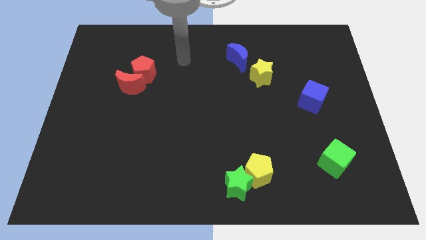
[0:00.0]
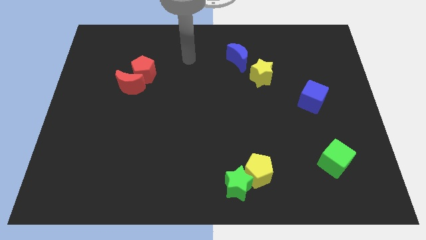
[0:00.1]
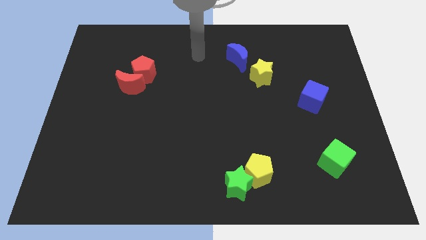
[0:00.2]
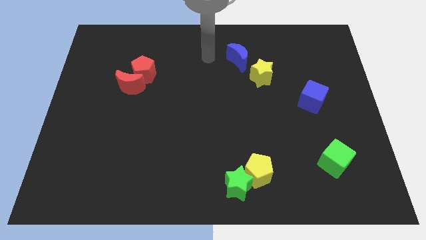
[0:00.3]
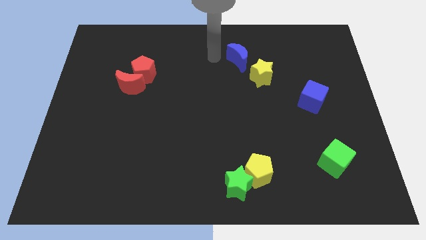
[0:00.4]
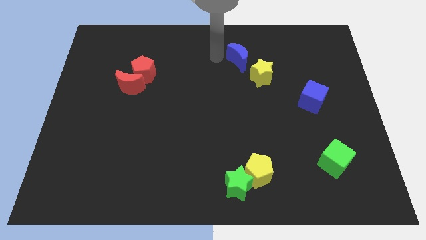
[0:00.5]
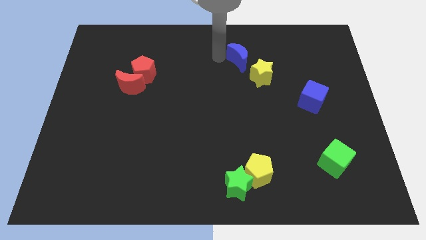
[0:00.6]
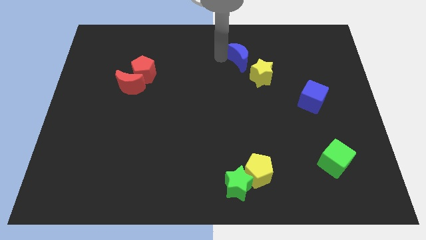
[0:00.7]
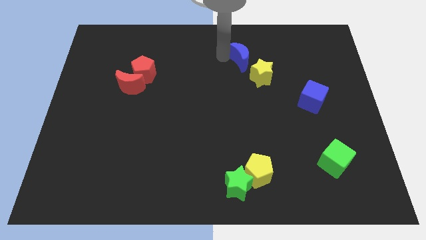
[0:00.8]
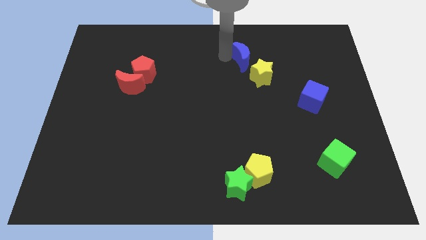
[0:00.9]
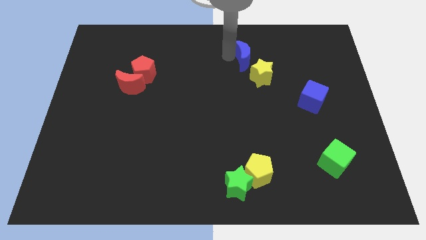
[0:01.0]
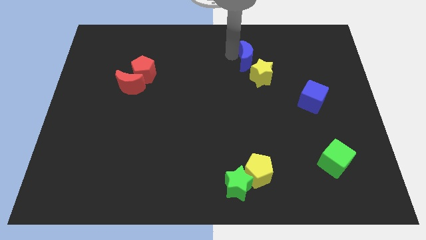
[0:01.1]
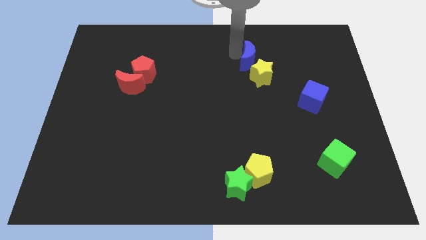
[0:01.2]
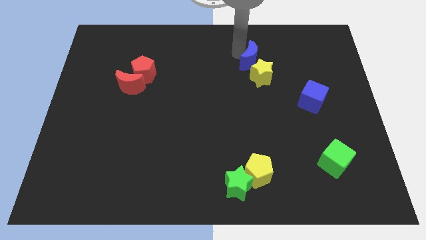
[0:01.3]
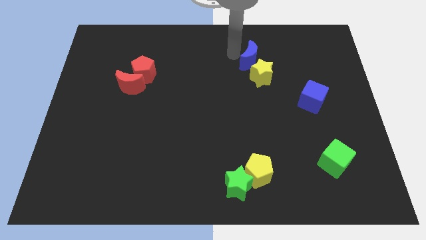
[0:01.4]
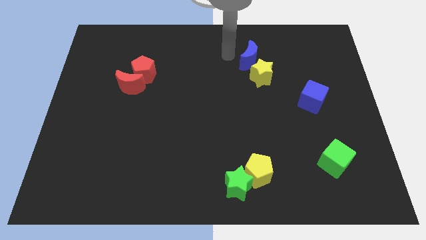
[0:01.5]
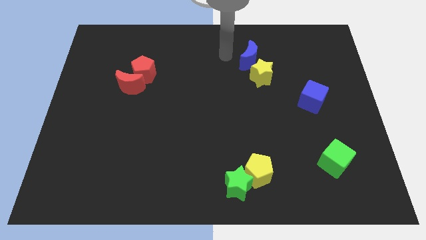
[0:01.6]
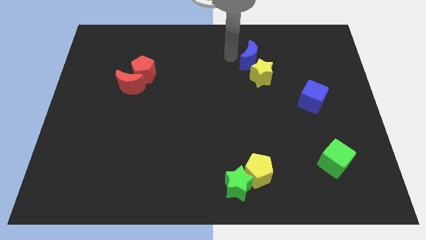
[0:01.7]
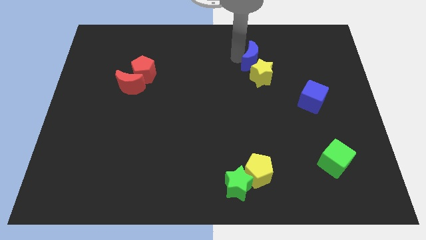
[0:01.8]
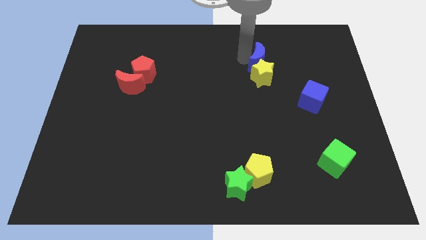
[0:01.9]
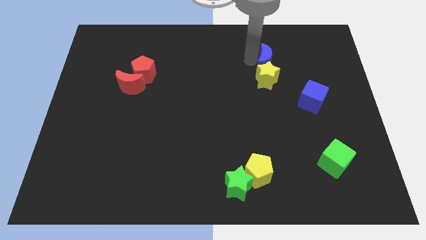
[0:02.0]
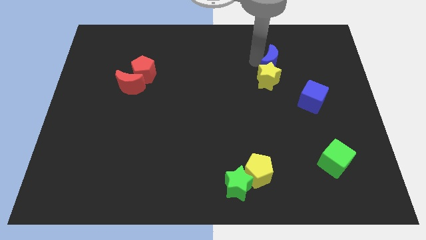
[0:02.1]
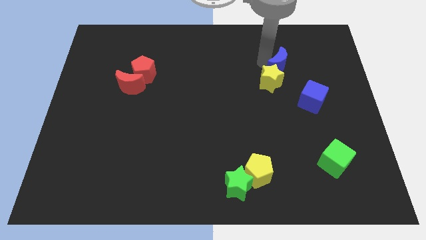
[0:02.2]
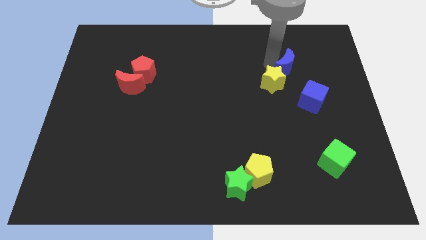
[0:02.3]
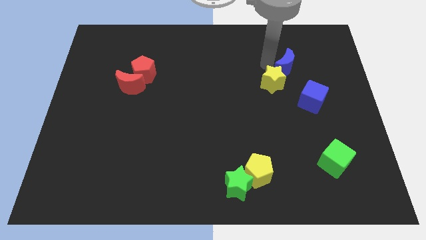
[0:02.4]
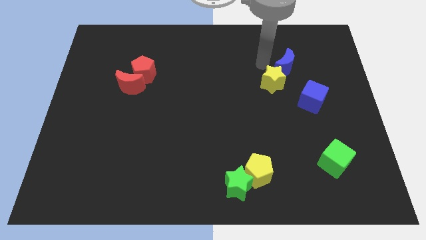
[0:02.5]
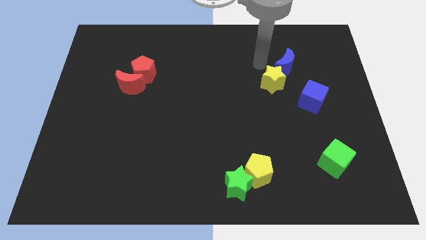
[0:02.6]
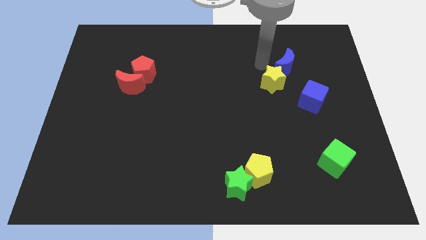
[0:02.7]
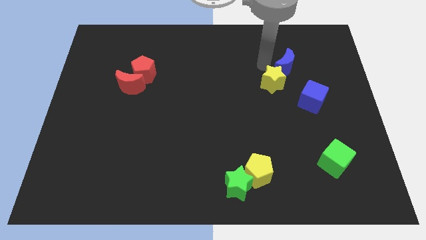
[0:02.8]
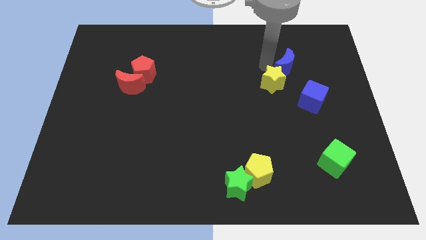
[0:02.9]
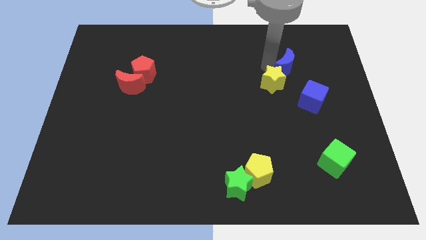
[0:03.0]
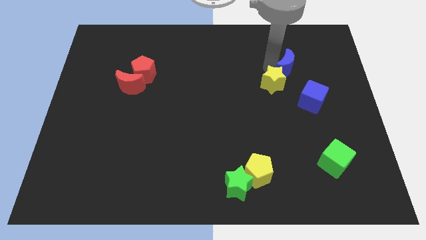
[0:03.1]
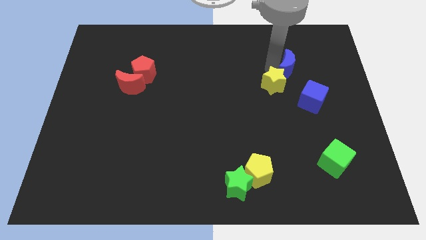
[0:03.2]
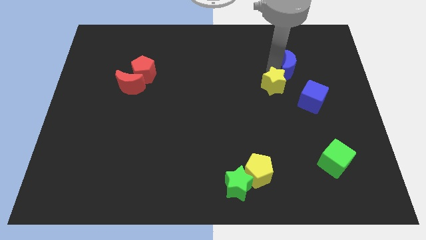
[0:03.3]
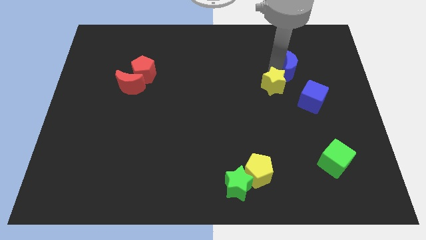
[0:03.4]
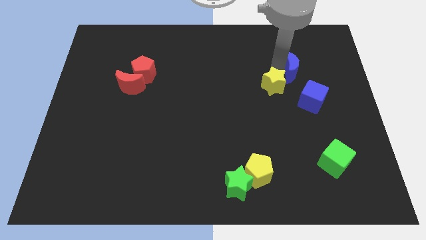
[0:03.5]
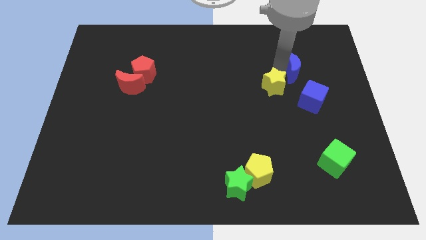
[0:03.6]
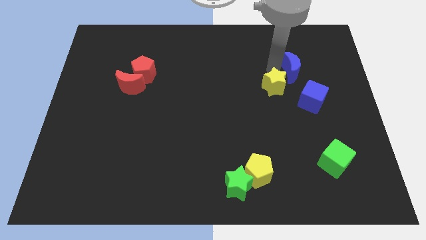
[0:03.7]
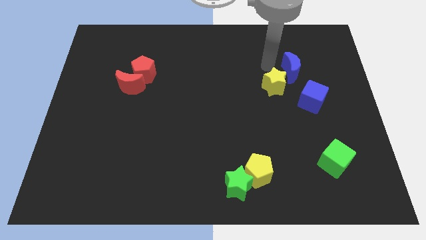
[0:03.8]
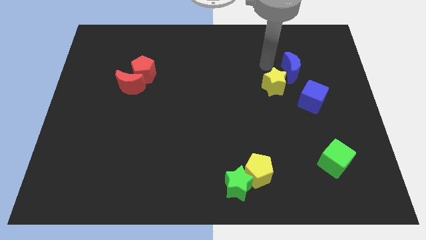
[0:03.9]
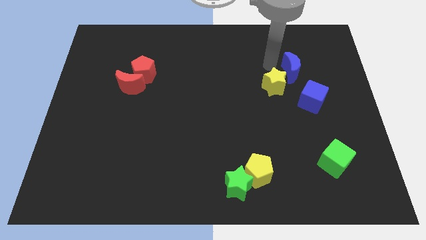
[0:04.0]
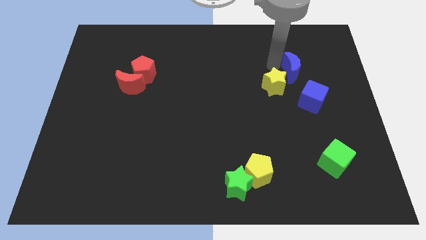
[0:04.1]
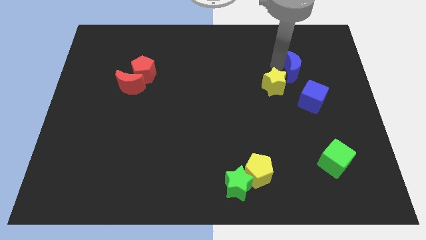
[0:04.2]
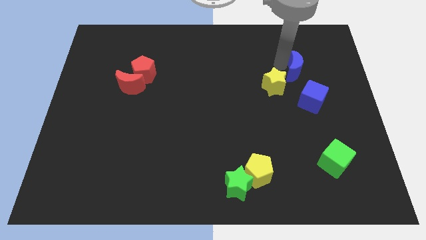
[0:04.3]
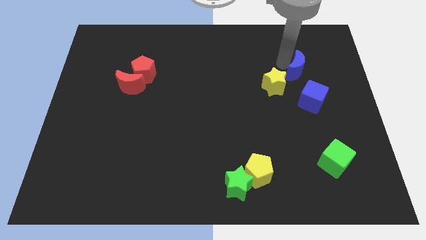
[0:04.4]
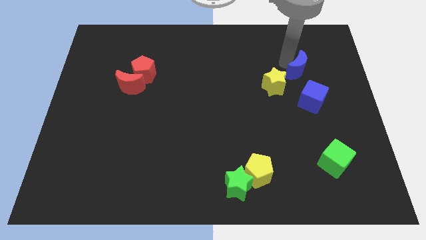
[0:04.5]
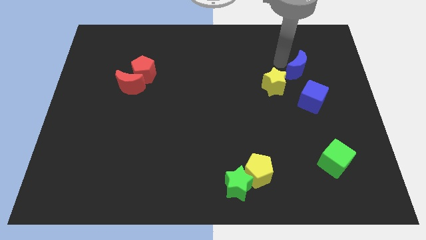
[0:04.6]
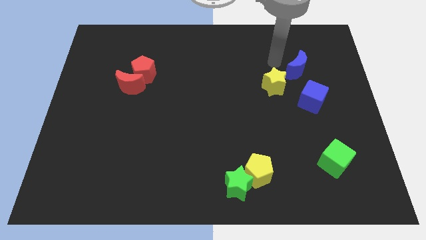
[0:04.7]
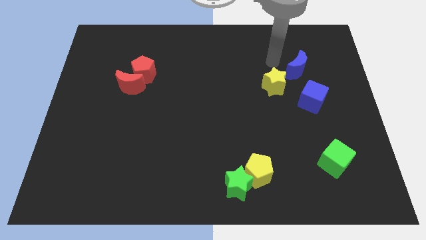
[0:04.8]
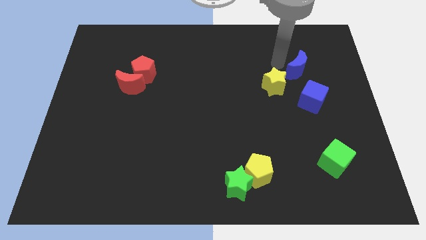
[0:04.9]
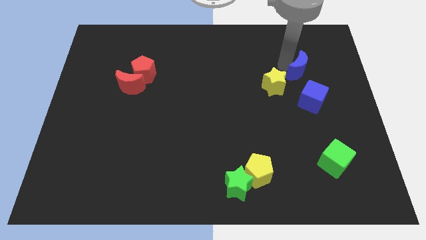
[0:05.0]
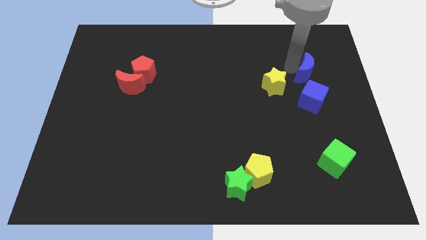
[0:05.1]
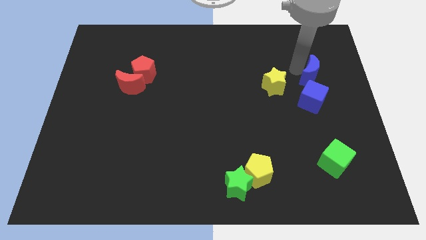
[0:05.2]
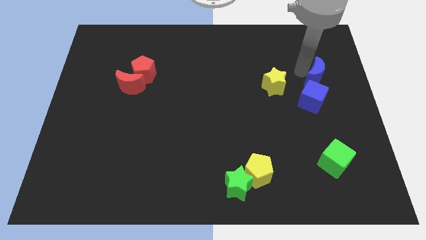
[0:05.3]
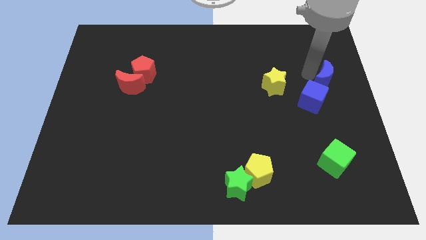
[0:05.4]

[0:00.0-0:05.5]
push the blue moon to the right side

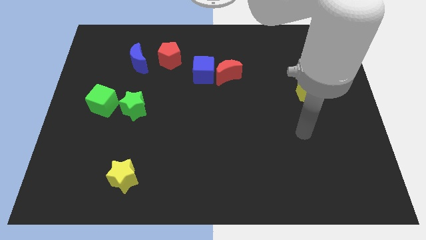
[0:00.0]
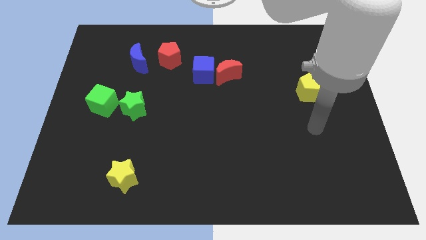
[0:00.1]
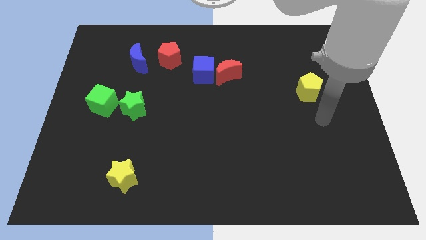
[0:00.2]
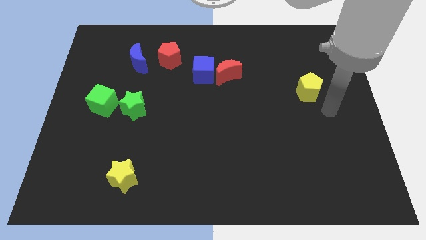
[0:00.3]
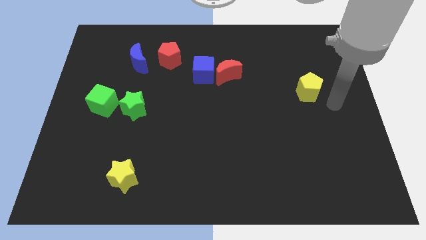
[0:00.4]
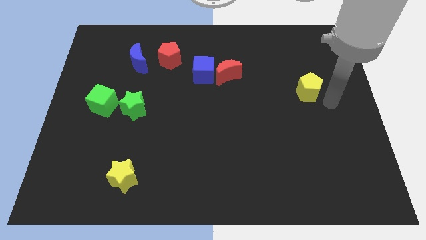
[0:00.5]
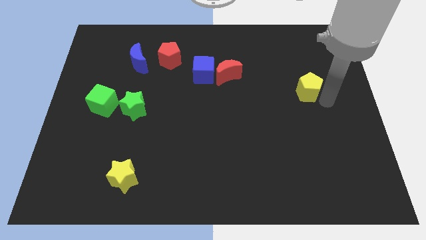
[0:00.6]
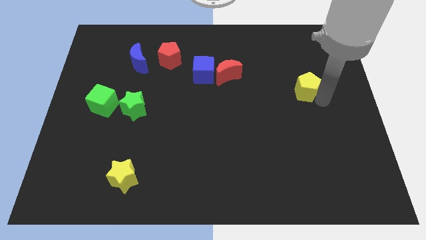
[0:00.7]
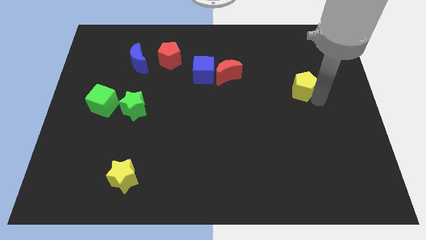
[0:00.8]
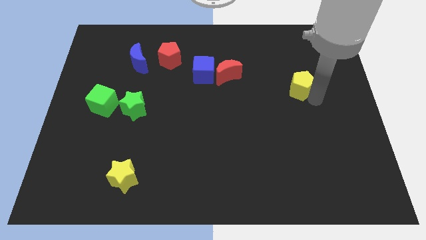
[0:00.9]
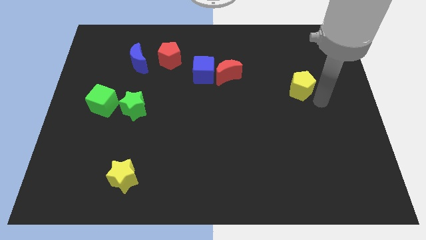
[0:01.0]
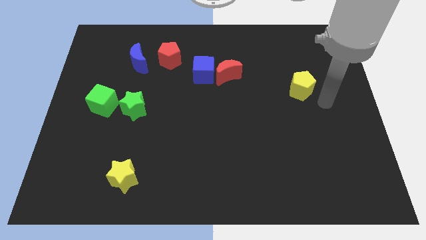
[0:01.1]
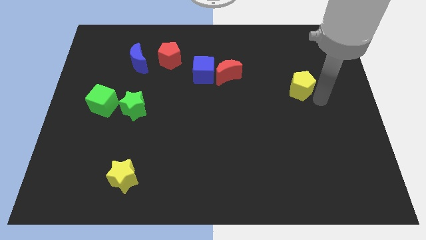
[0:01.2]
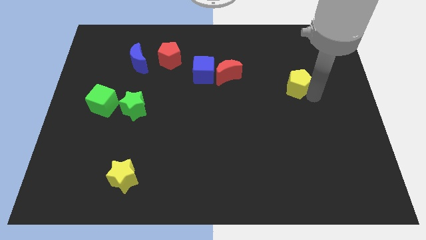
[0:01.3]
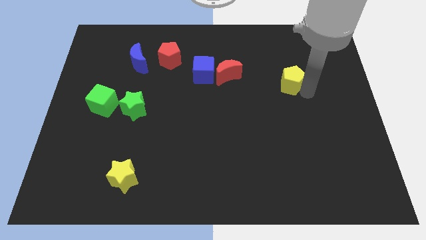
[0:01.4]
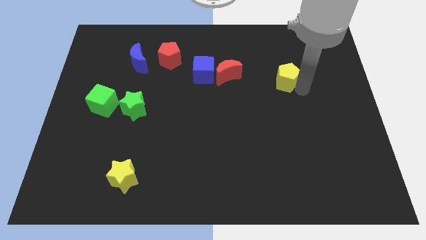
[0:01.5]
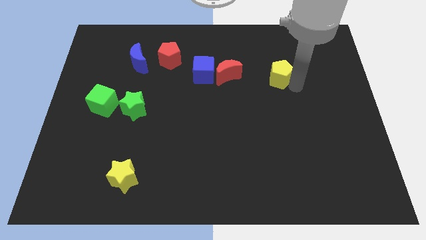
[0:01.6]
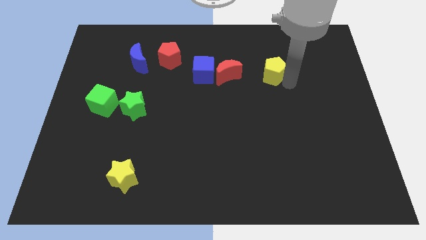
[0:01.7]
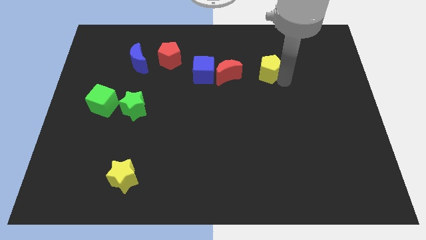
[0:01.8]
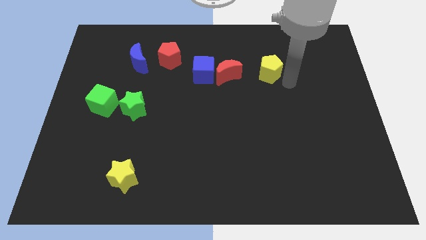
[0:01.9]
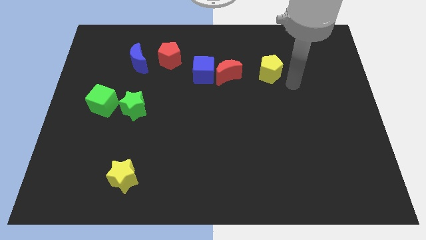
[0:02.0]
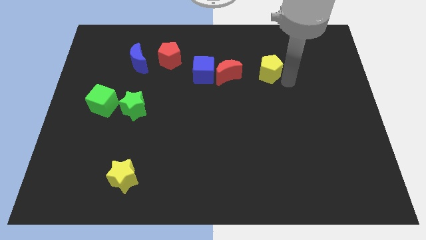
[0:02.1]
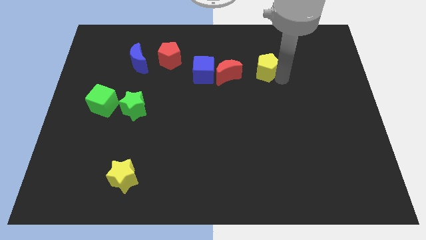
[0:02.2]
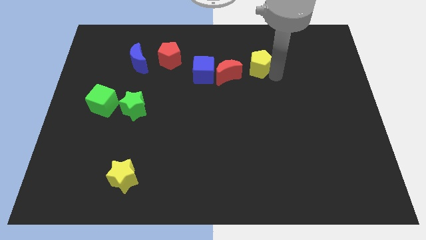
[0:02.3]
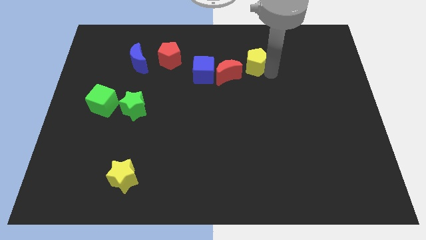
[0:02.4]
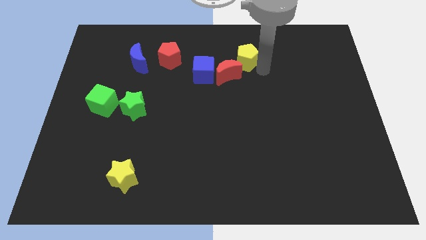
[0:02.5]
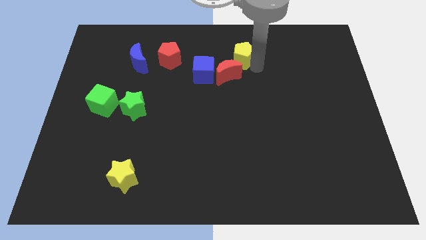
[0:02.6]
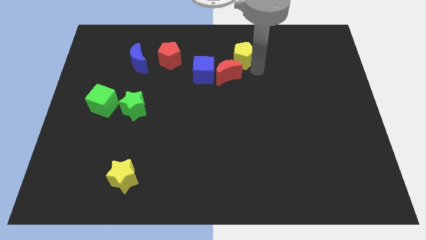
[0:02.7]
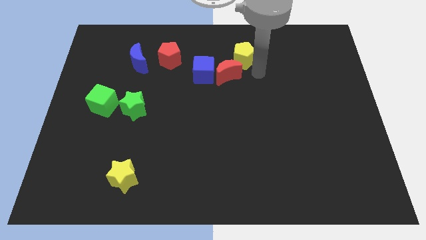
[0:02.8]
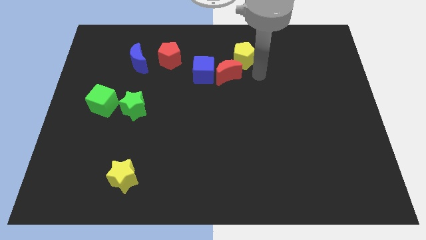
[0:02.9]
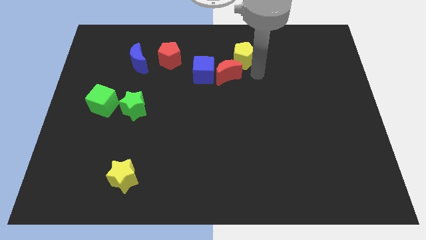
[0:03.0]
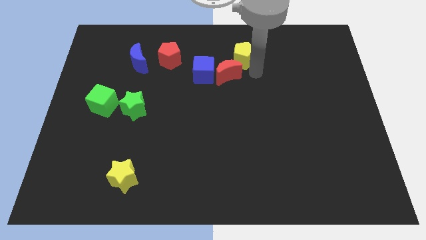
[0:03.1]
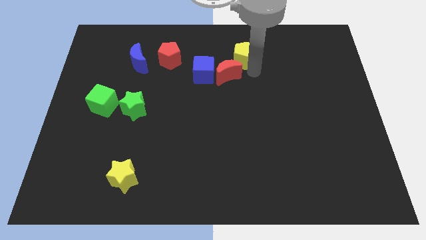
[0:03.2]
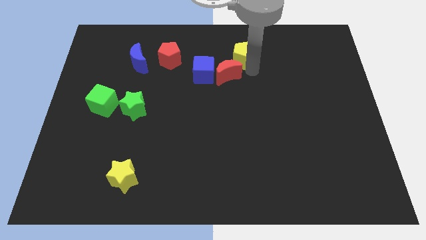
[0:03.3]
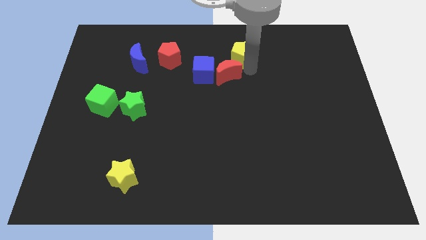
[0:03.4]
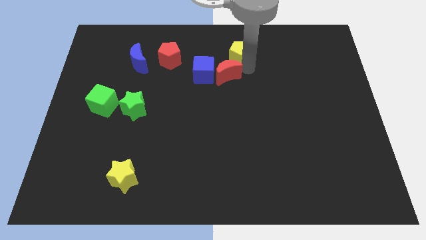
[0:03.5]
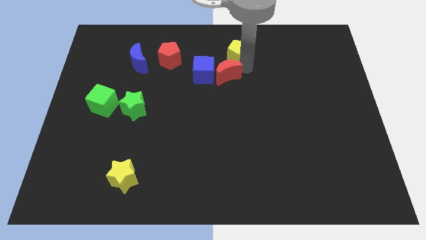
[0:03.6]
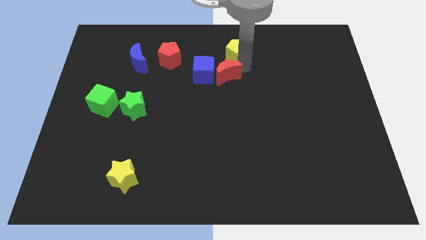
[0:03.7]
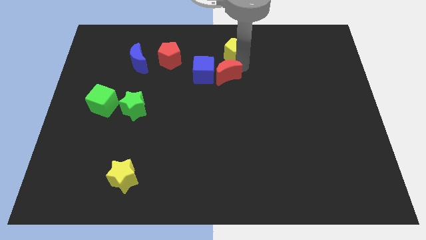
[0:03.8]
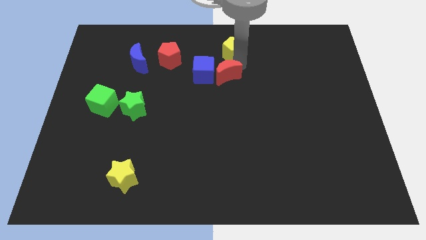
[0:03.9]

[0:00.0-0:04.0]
push the yellow pentagon to the top
